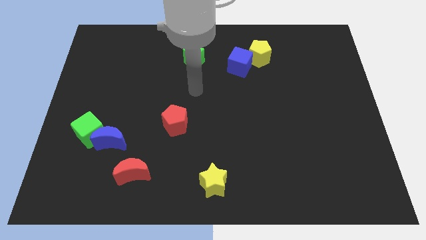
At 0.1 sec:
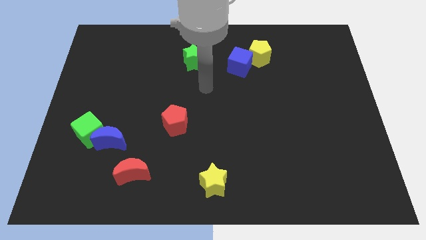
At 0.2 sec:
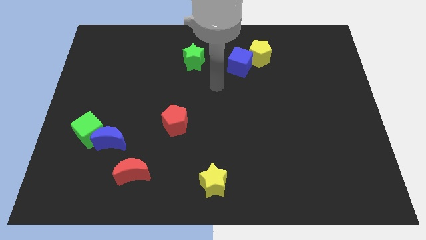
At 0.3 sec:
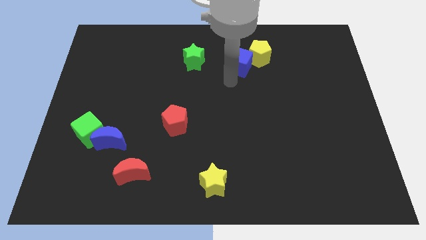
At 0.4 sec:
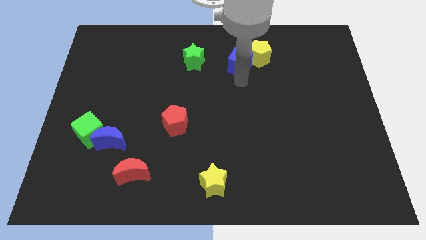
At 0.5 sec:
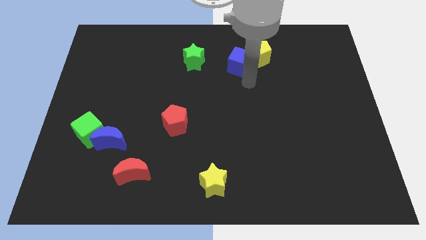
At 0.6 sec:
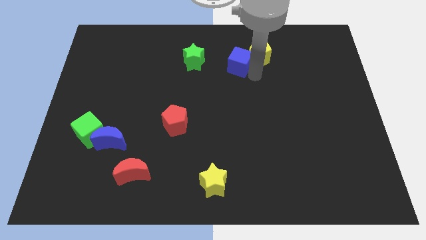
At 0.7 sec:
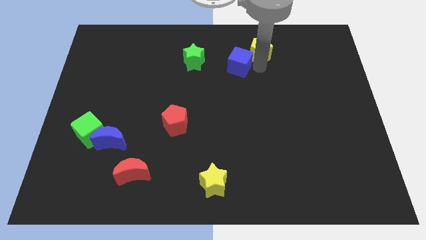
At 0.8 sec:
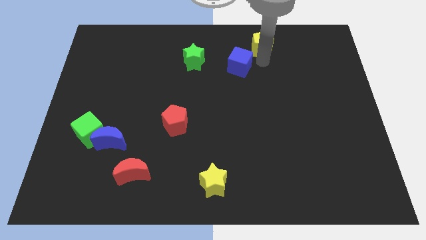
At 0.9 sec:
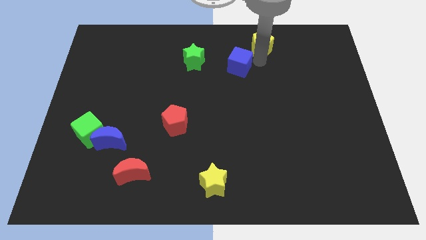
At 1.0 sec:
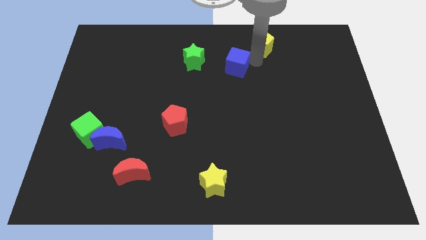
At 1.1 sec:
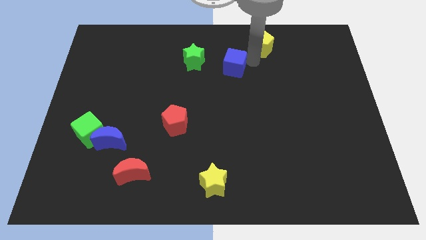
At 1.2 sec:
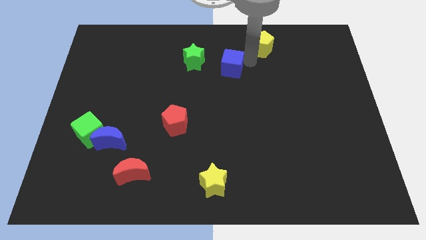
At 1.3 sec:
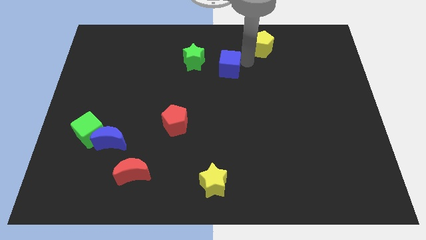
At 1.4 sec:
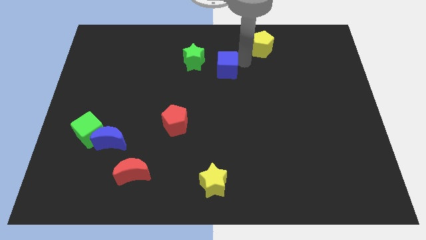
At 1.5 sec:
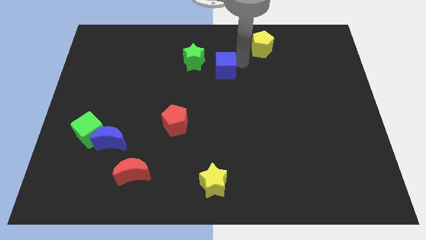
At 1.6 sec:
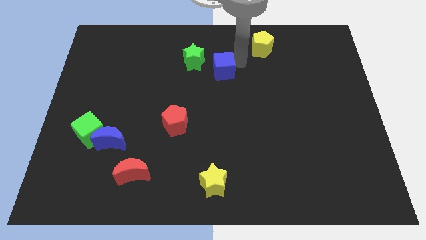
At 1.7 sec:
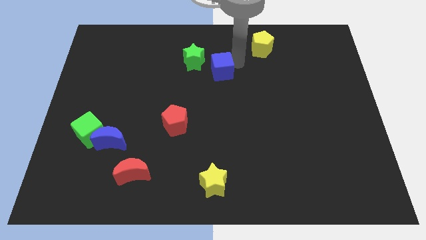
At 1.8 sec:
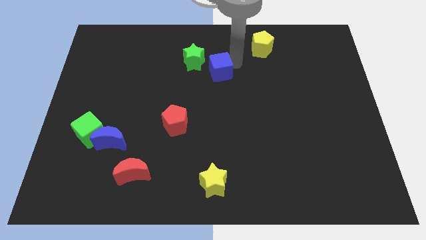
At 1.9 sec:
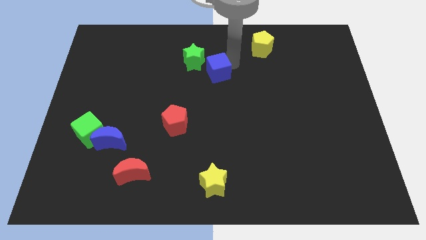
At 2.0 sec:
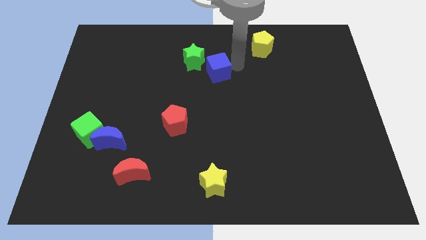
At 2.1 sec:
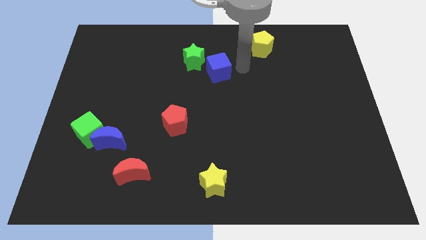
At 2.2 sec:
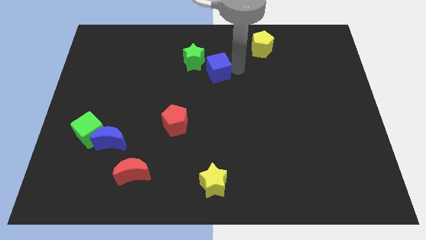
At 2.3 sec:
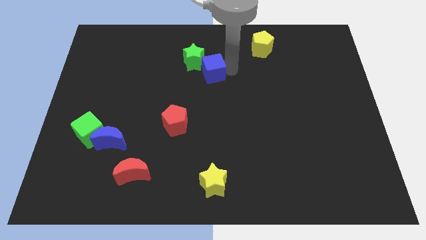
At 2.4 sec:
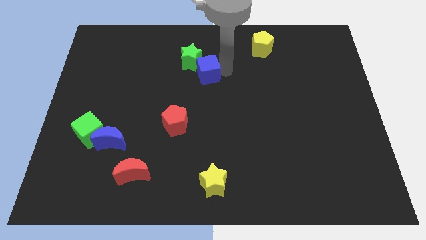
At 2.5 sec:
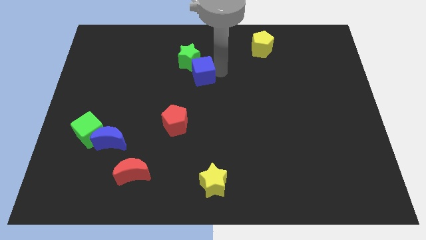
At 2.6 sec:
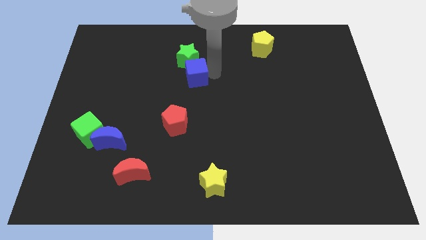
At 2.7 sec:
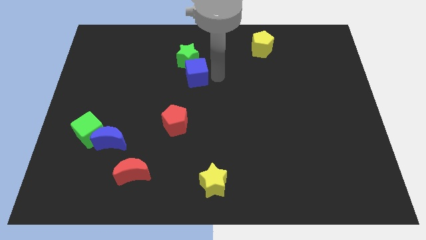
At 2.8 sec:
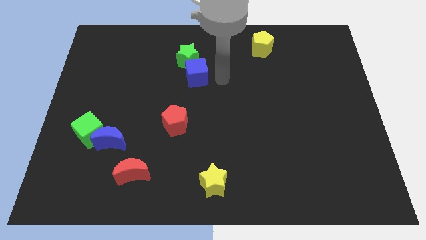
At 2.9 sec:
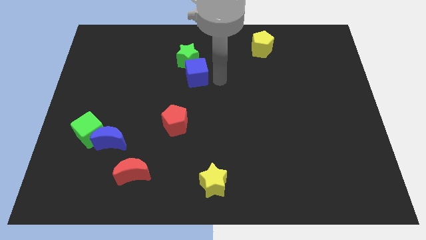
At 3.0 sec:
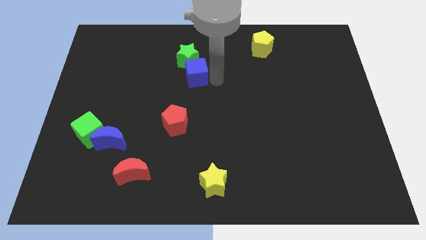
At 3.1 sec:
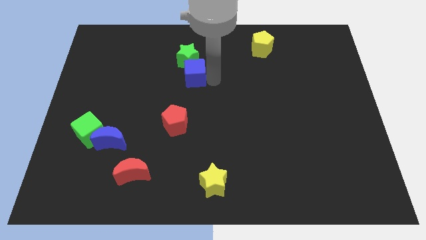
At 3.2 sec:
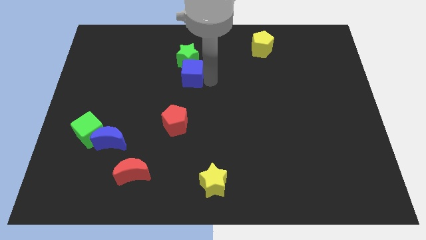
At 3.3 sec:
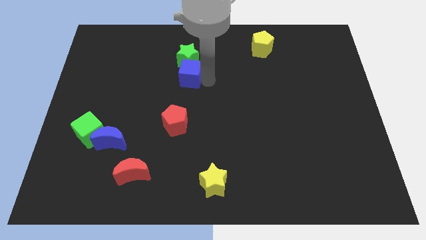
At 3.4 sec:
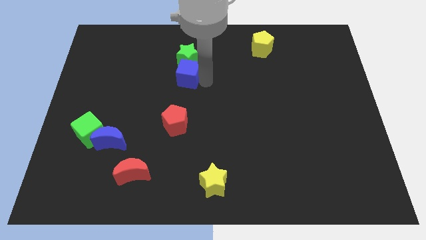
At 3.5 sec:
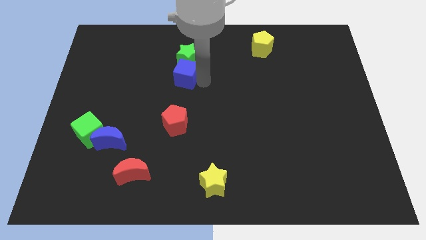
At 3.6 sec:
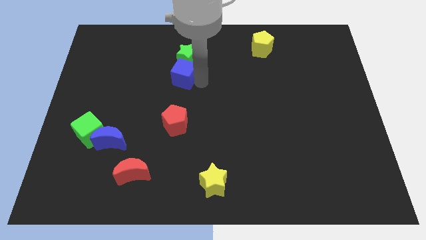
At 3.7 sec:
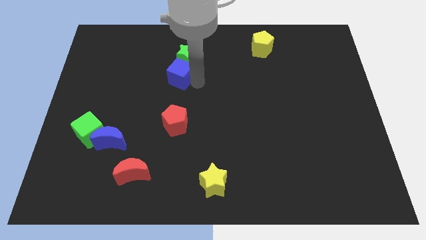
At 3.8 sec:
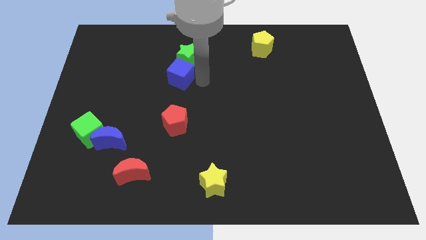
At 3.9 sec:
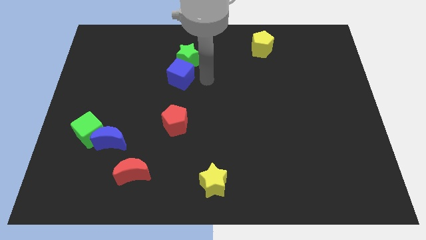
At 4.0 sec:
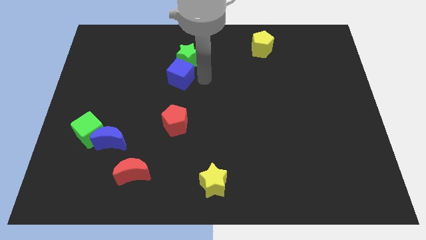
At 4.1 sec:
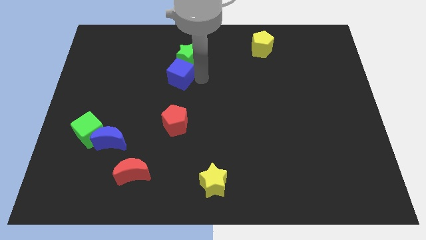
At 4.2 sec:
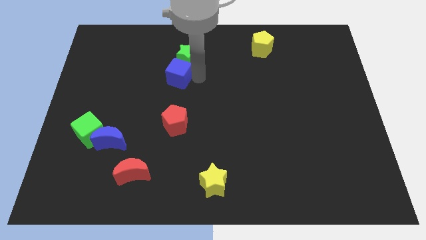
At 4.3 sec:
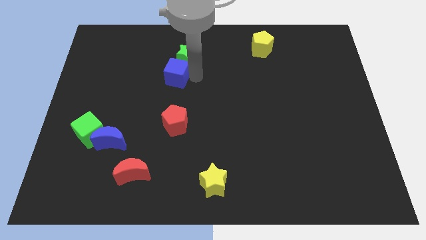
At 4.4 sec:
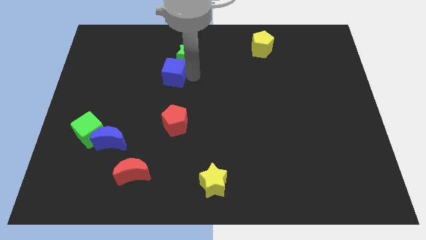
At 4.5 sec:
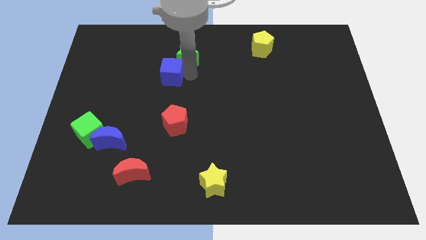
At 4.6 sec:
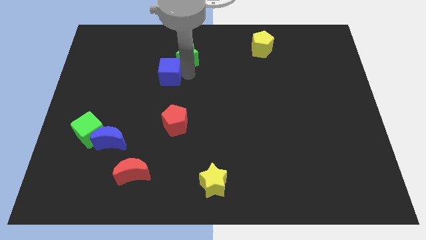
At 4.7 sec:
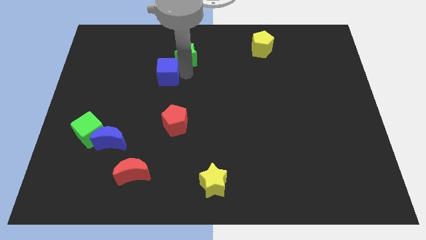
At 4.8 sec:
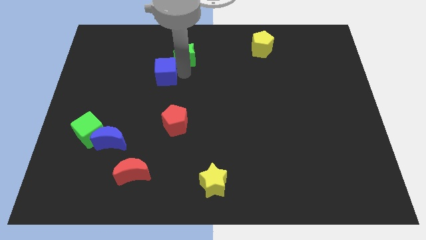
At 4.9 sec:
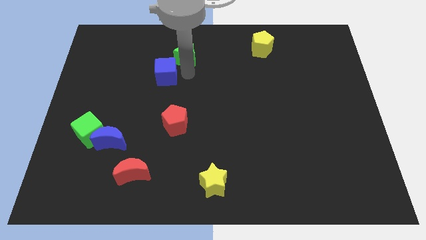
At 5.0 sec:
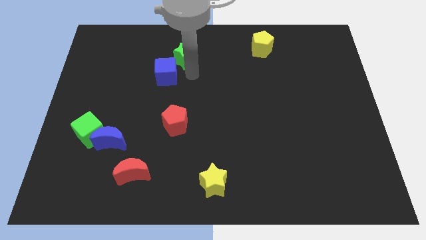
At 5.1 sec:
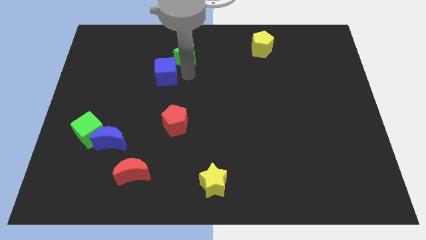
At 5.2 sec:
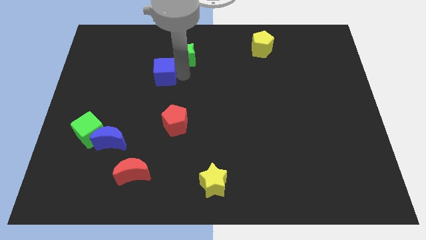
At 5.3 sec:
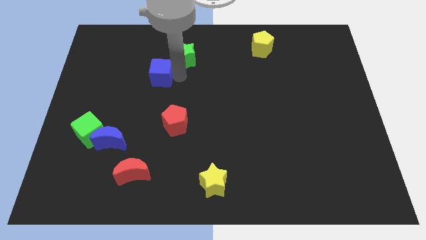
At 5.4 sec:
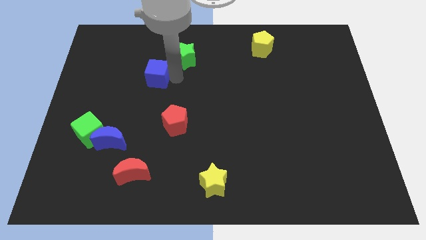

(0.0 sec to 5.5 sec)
slide the blue cube left

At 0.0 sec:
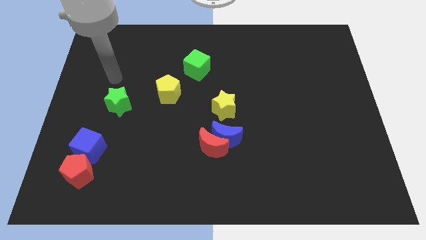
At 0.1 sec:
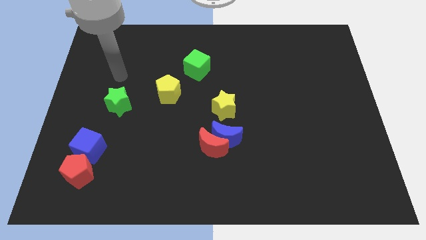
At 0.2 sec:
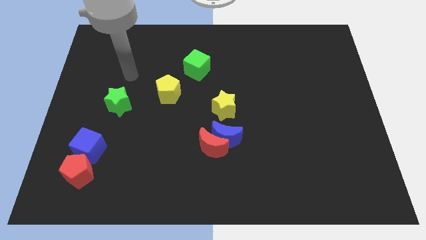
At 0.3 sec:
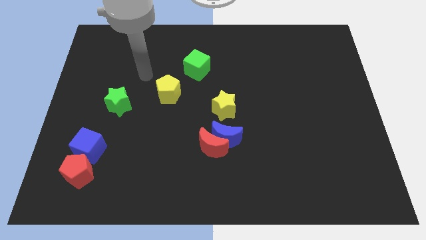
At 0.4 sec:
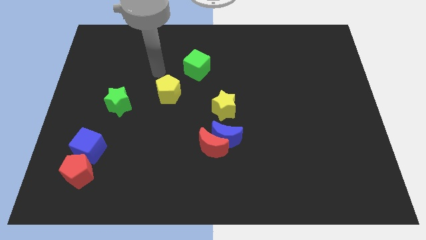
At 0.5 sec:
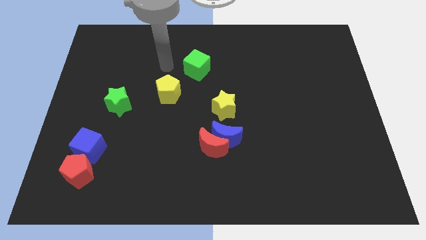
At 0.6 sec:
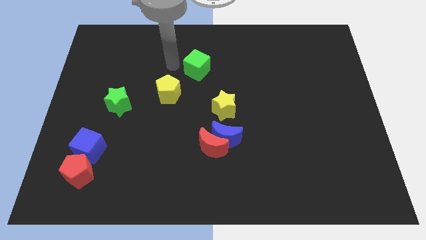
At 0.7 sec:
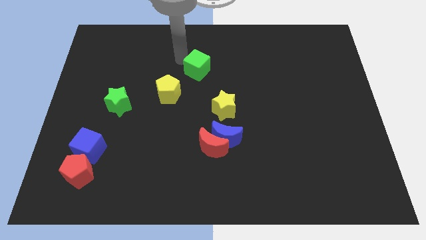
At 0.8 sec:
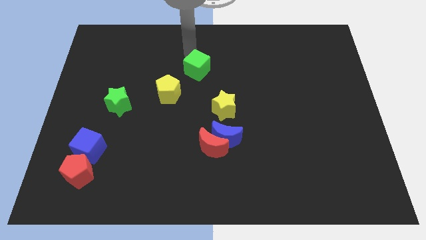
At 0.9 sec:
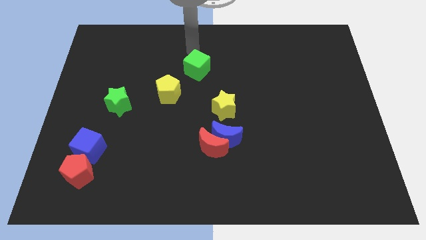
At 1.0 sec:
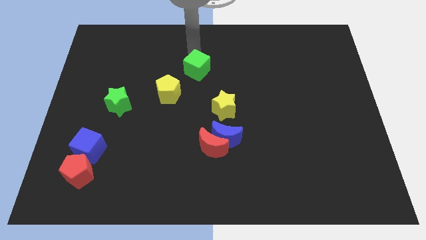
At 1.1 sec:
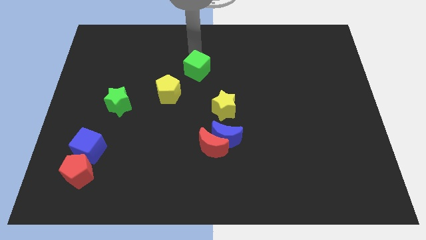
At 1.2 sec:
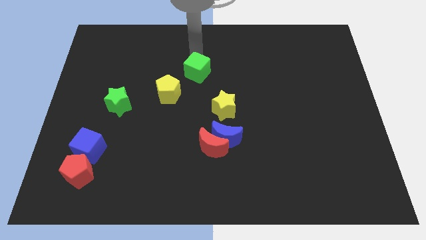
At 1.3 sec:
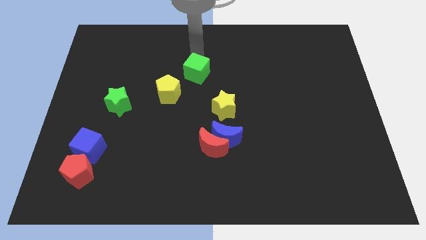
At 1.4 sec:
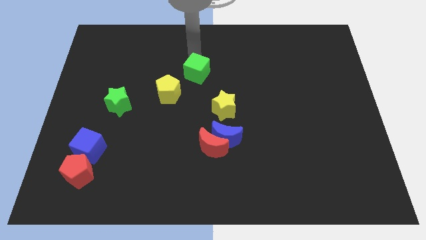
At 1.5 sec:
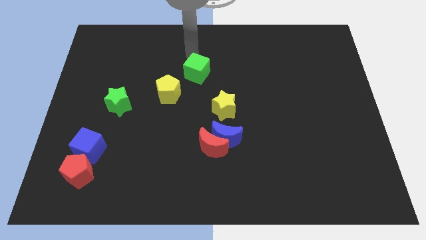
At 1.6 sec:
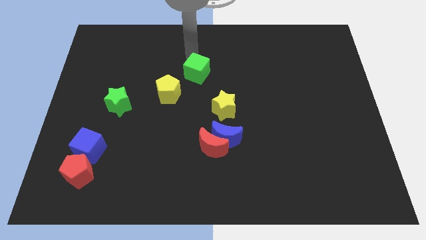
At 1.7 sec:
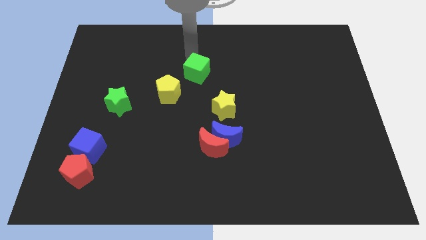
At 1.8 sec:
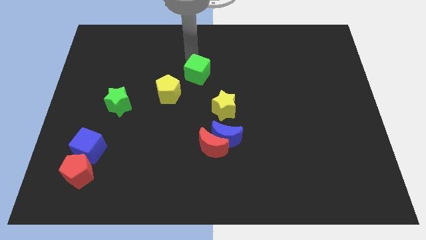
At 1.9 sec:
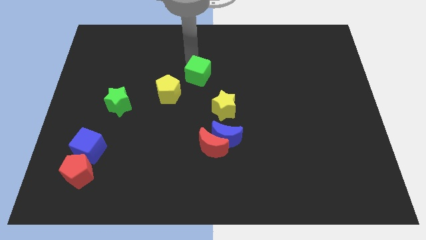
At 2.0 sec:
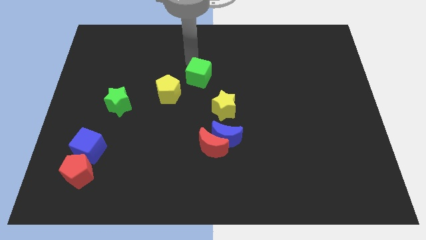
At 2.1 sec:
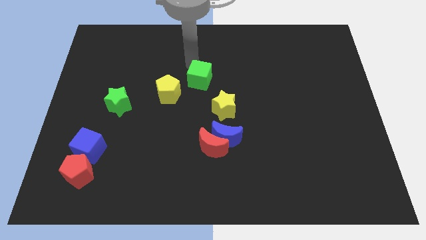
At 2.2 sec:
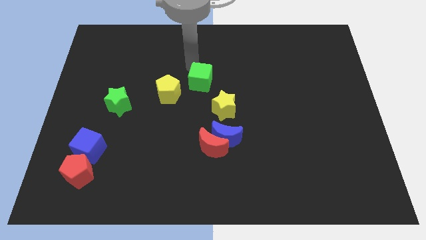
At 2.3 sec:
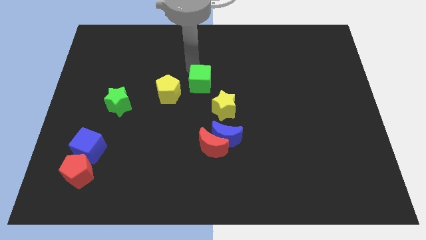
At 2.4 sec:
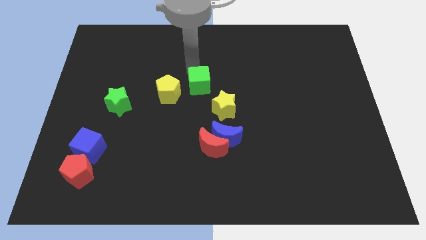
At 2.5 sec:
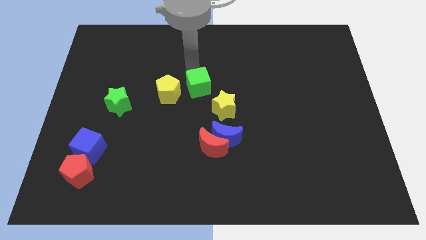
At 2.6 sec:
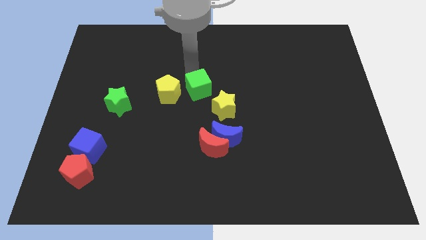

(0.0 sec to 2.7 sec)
slightly slide the green cube downwards
